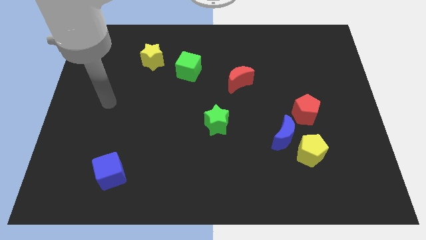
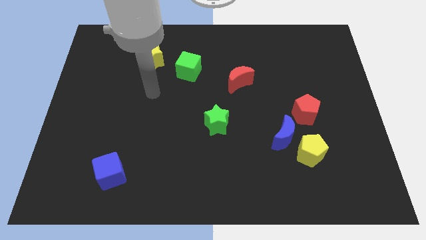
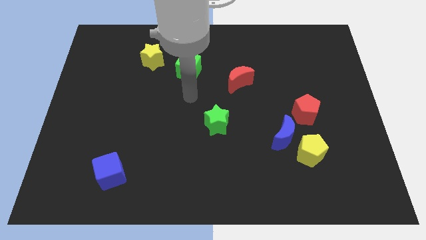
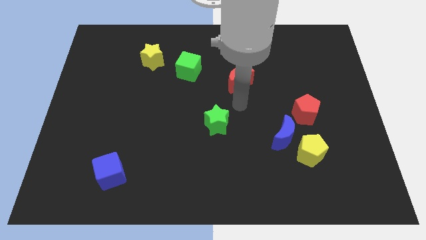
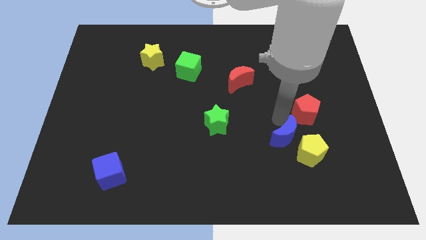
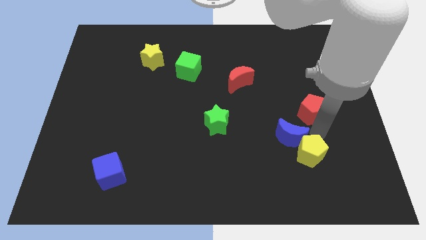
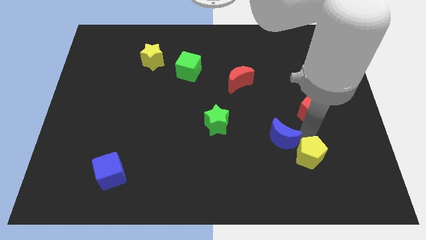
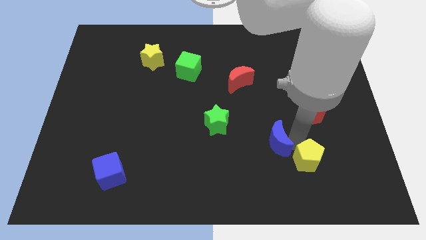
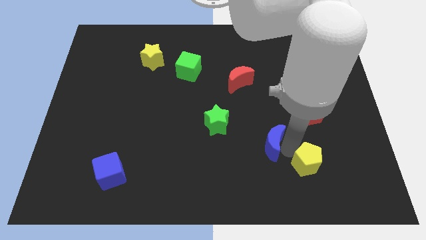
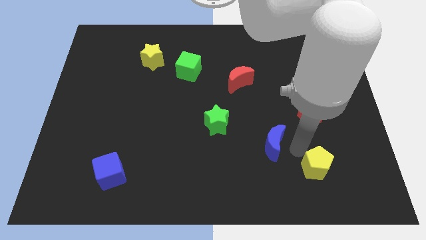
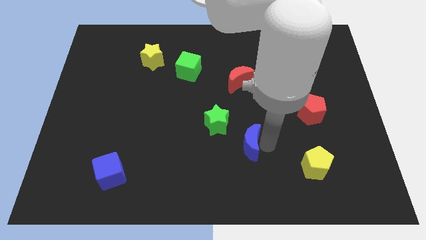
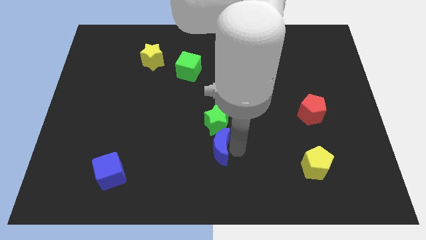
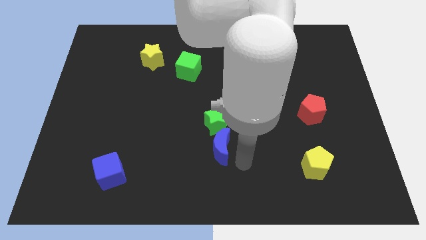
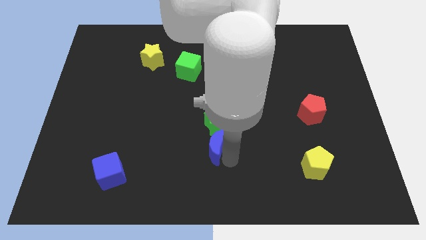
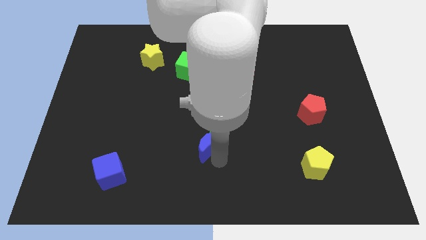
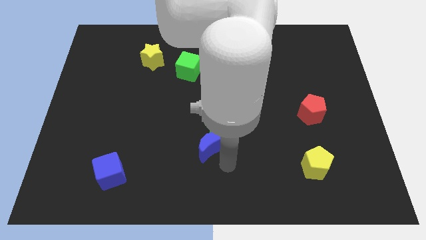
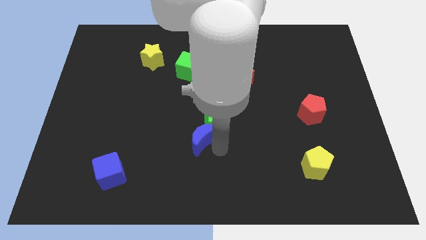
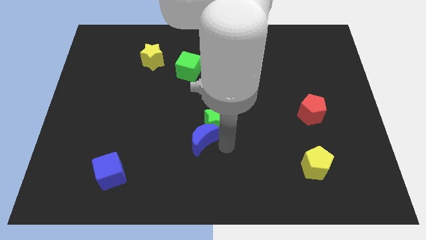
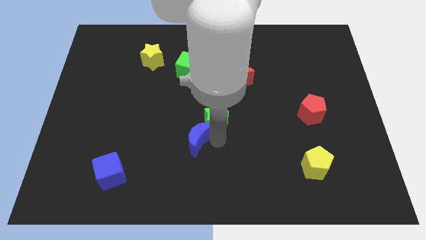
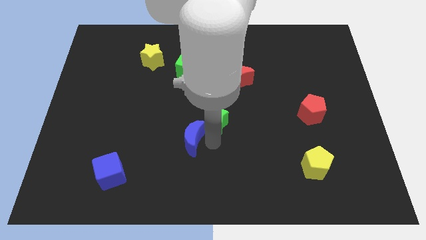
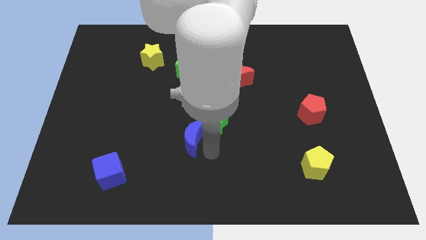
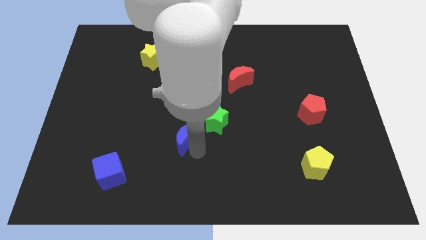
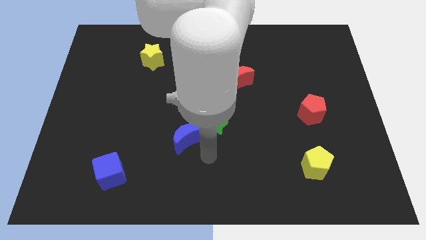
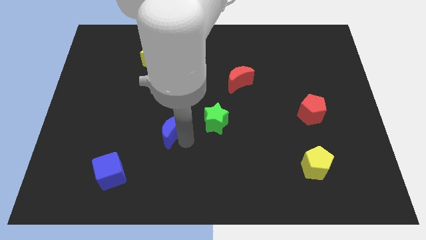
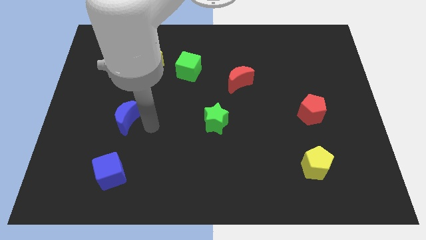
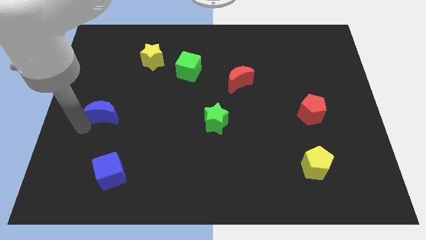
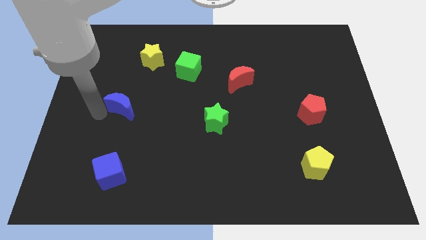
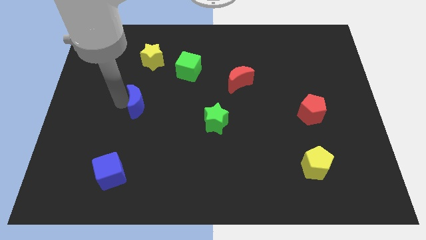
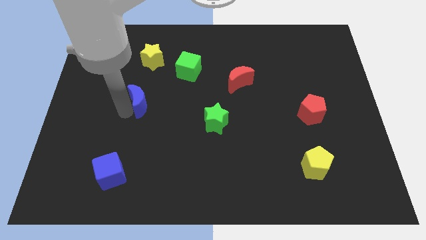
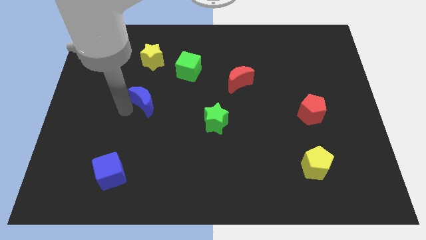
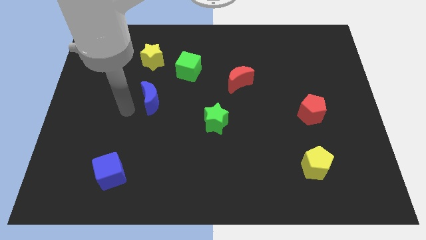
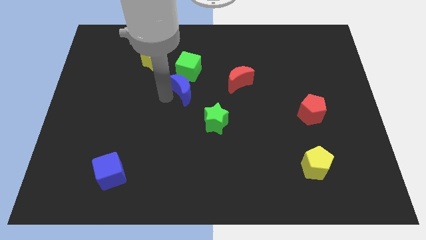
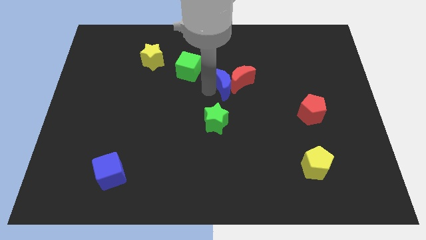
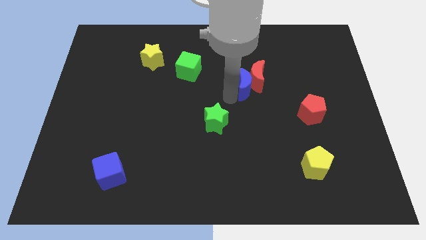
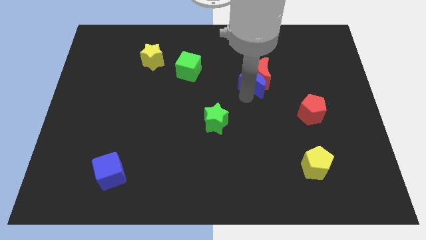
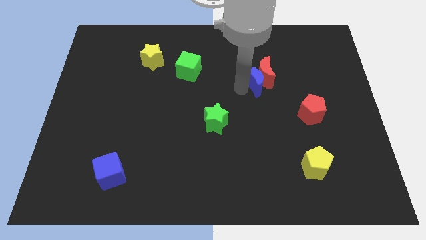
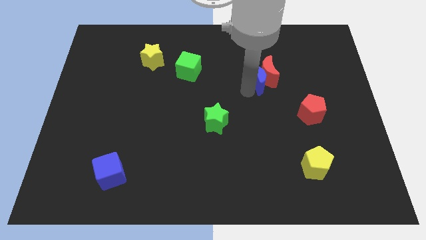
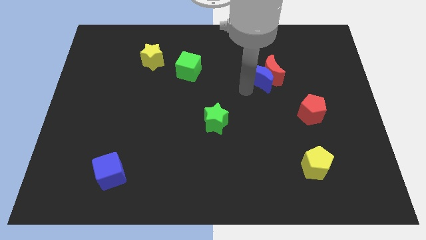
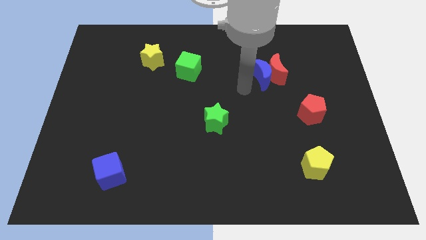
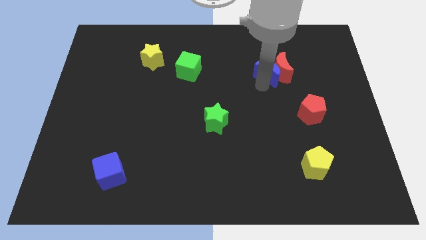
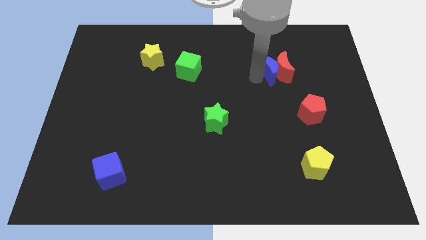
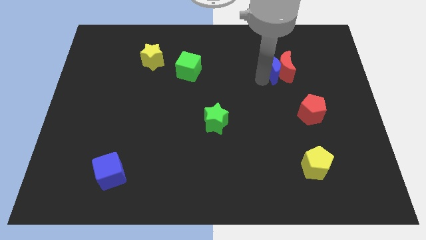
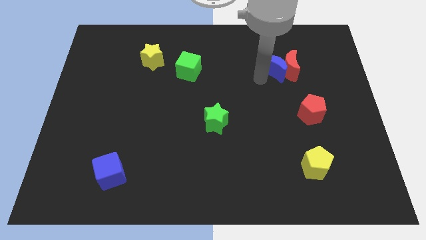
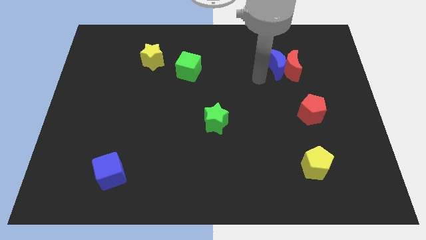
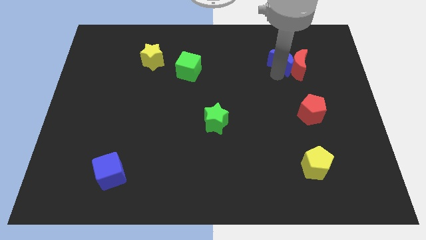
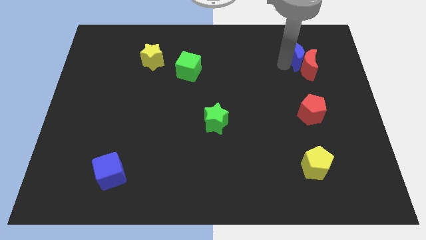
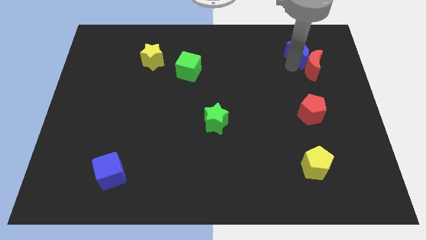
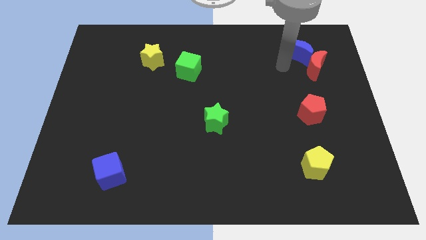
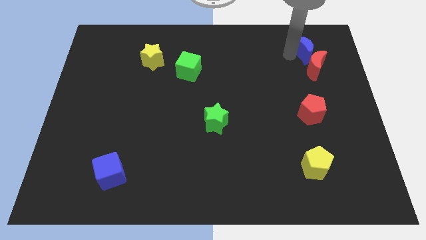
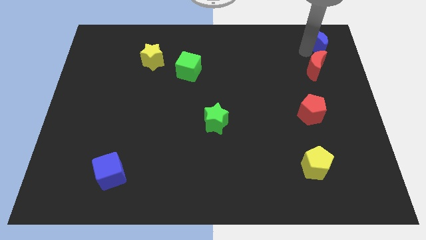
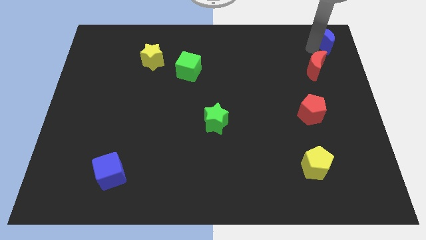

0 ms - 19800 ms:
push the blue moon to the upper right corner
